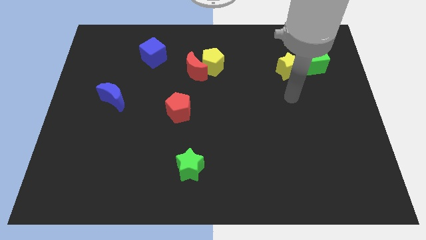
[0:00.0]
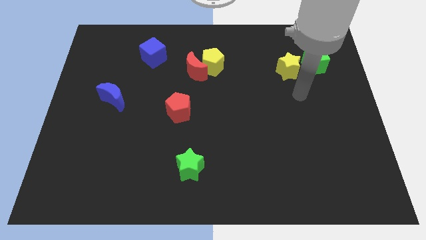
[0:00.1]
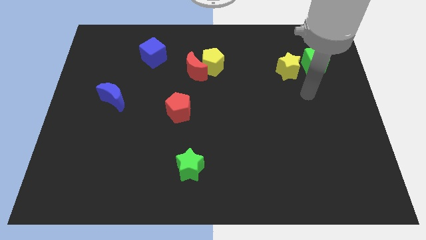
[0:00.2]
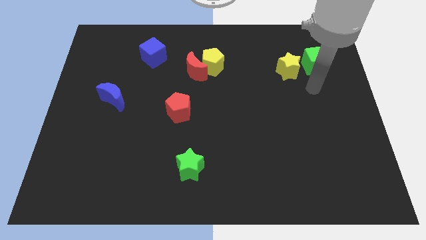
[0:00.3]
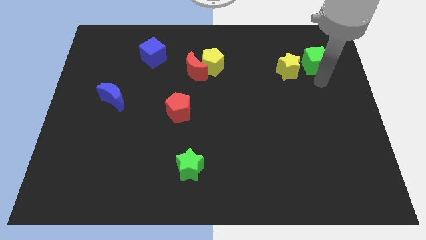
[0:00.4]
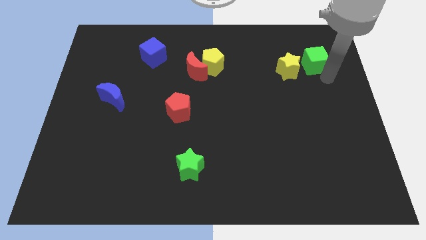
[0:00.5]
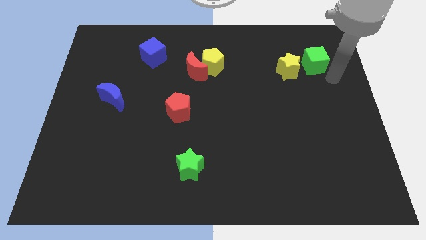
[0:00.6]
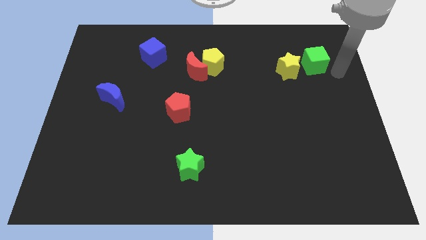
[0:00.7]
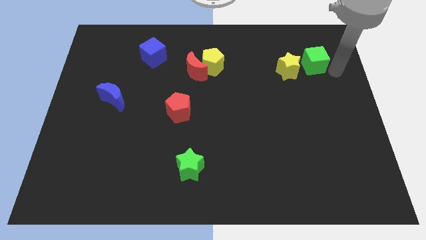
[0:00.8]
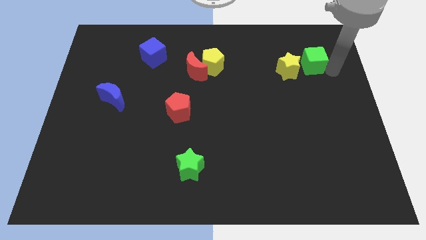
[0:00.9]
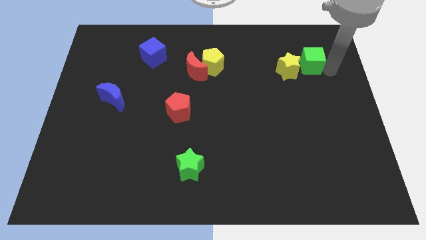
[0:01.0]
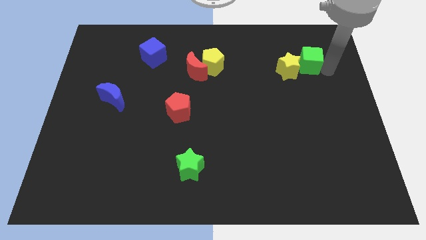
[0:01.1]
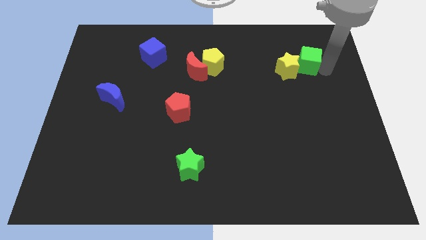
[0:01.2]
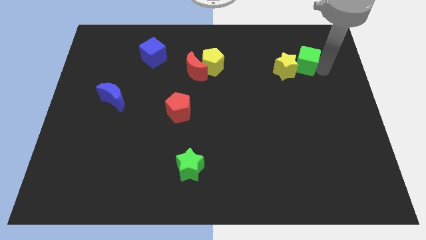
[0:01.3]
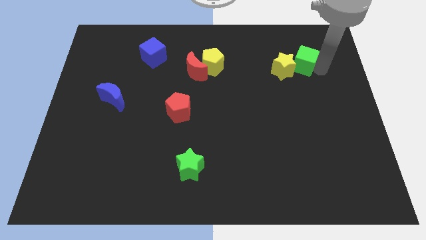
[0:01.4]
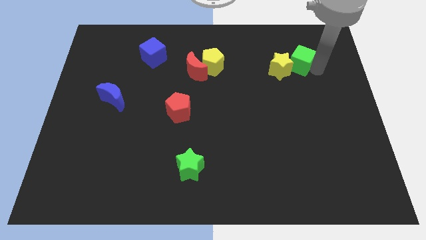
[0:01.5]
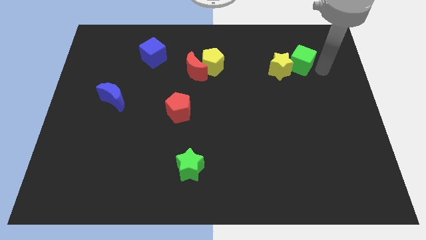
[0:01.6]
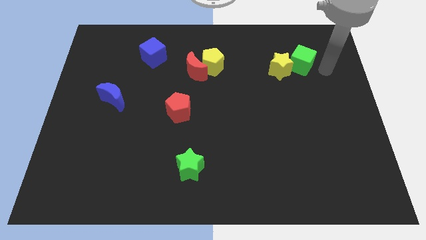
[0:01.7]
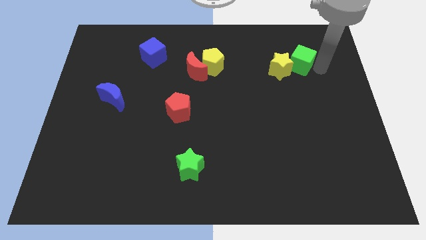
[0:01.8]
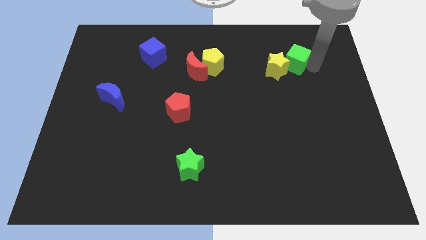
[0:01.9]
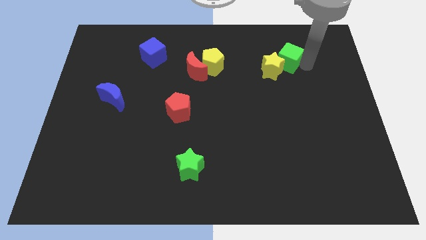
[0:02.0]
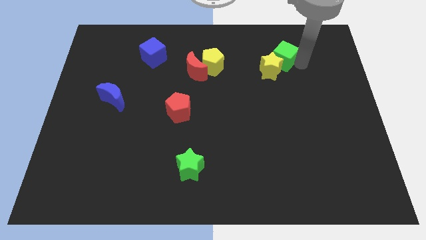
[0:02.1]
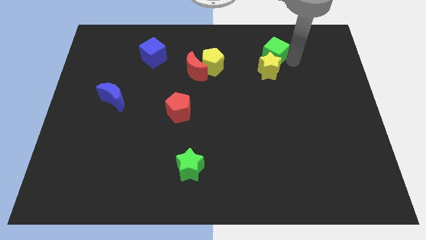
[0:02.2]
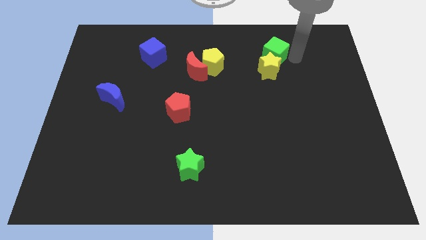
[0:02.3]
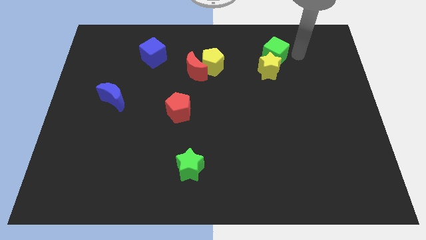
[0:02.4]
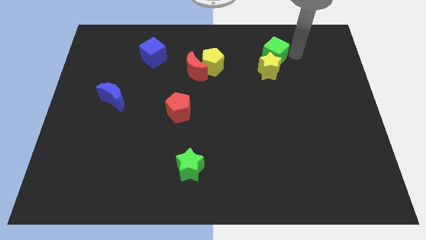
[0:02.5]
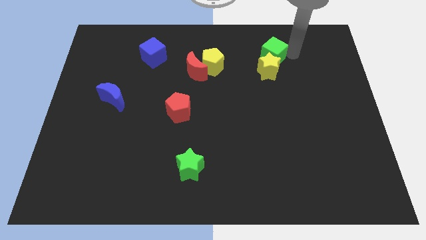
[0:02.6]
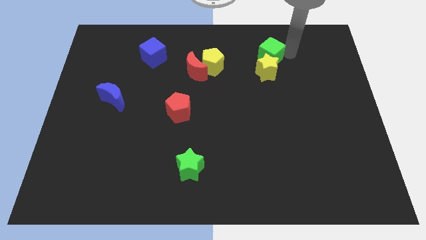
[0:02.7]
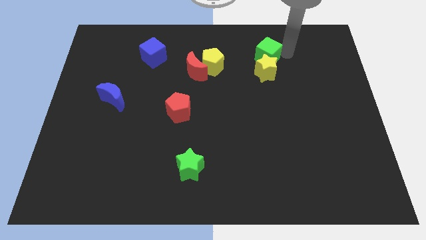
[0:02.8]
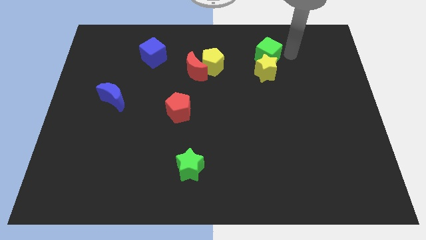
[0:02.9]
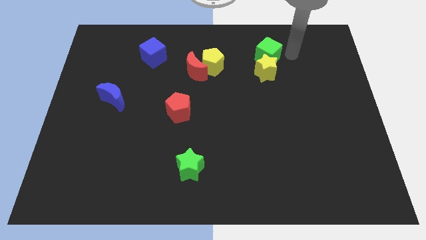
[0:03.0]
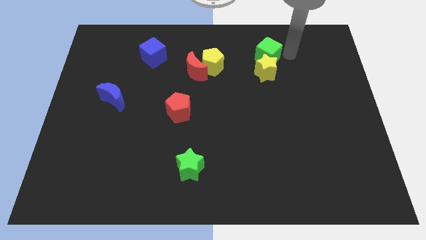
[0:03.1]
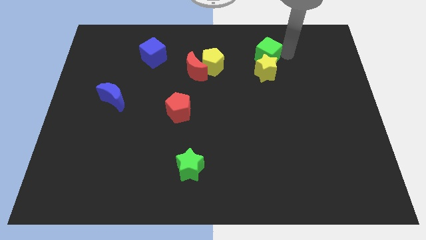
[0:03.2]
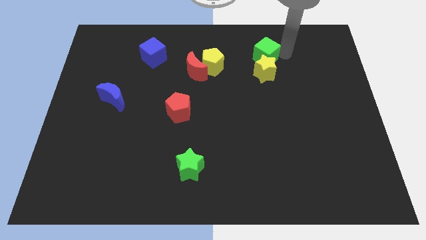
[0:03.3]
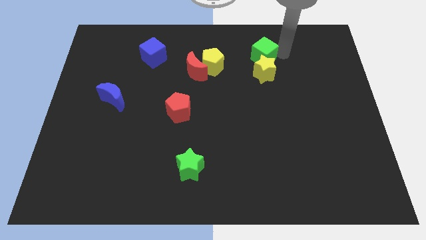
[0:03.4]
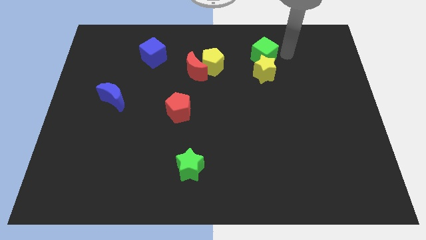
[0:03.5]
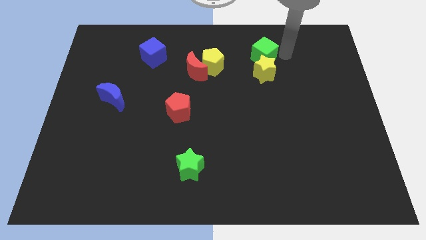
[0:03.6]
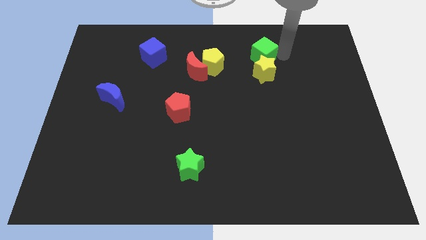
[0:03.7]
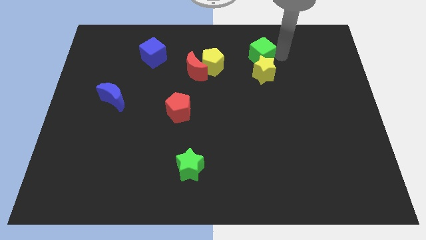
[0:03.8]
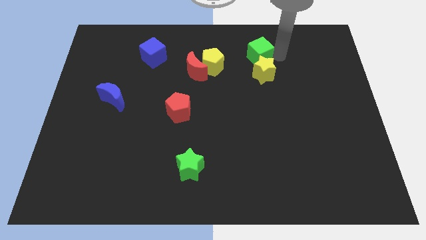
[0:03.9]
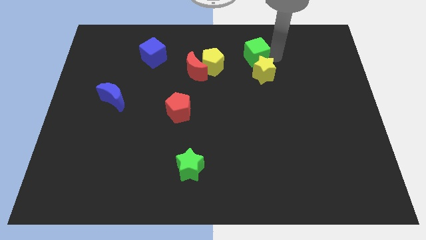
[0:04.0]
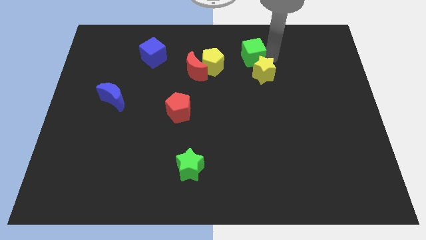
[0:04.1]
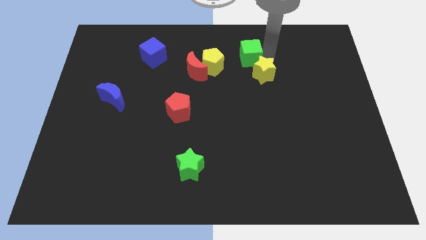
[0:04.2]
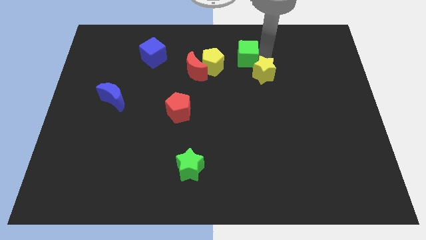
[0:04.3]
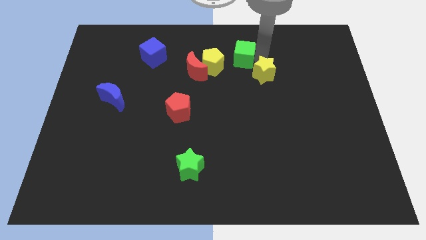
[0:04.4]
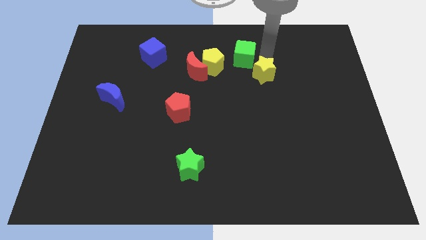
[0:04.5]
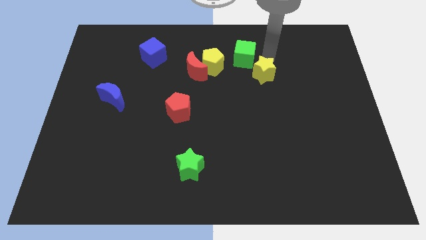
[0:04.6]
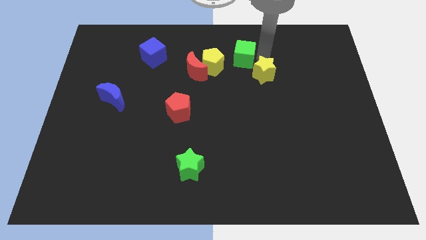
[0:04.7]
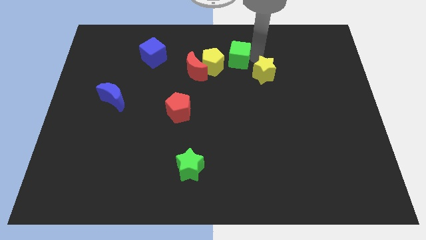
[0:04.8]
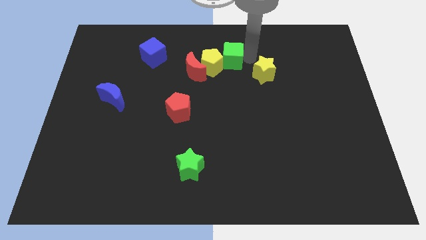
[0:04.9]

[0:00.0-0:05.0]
put the green cube to the top right of the red moon

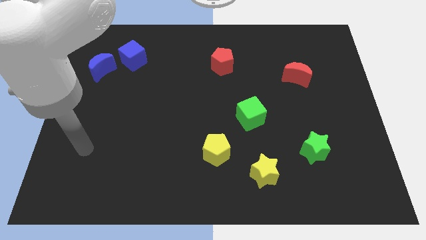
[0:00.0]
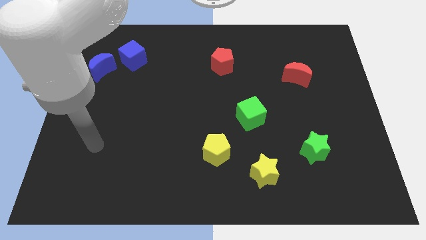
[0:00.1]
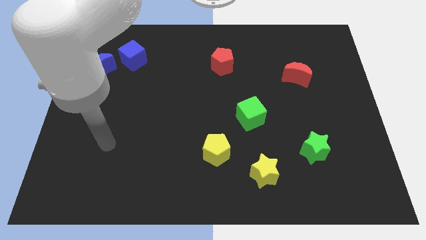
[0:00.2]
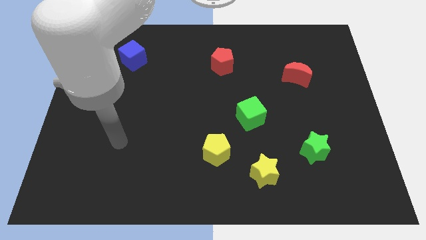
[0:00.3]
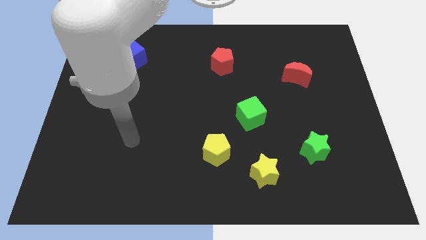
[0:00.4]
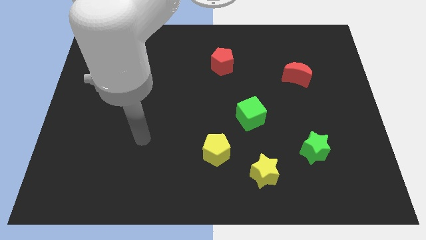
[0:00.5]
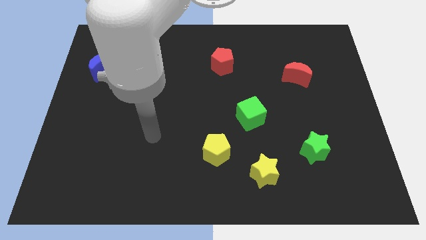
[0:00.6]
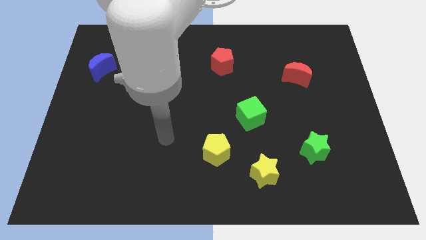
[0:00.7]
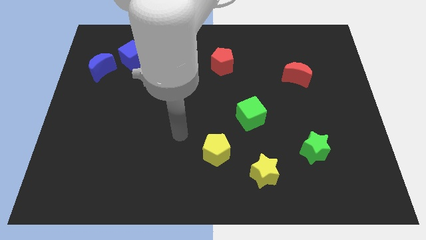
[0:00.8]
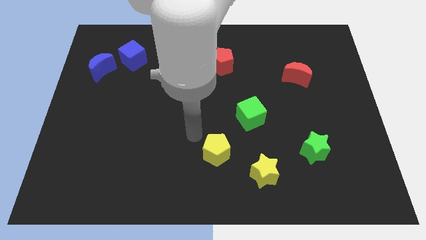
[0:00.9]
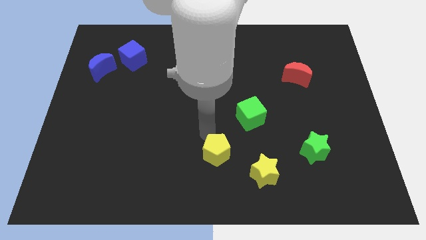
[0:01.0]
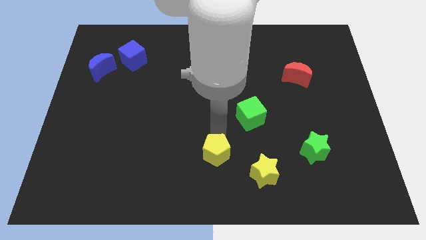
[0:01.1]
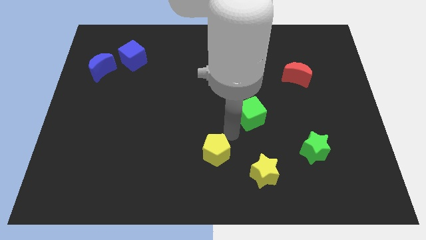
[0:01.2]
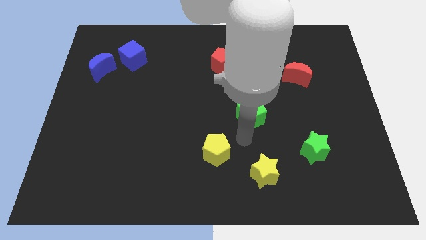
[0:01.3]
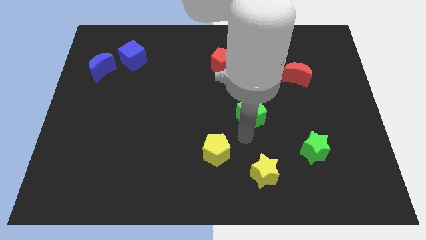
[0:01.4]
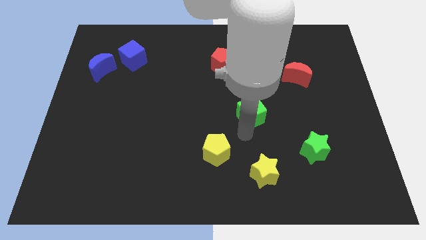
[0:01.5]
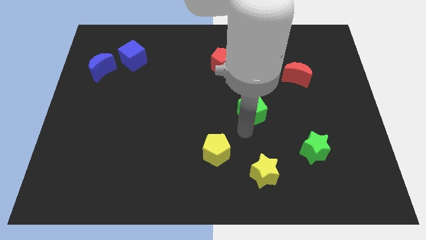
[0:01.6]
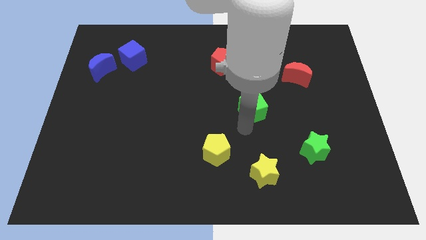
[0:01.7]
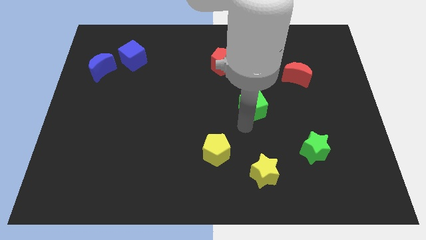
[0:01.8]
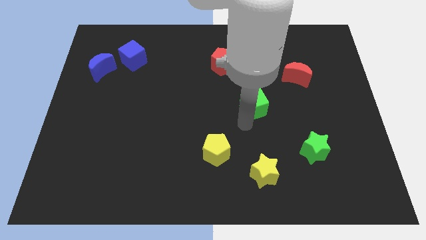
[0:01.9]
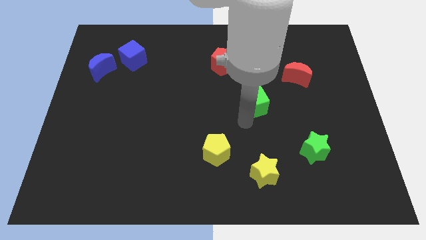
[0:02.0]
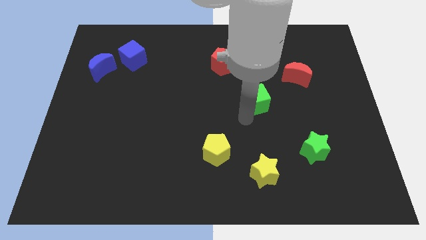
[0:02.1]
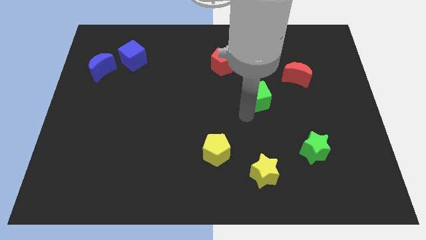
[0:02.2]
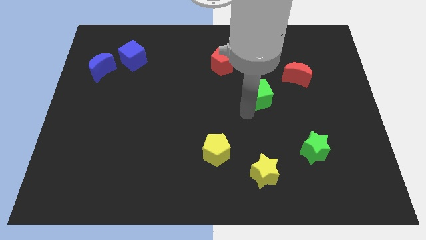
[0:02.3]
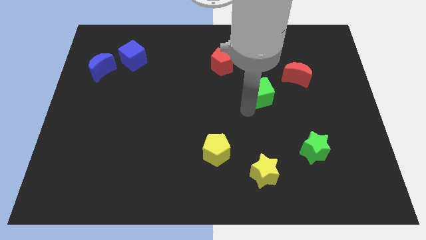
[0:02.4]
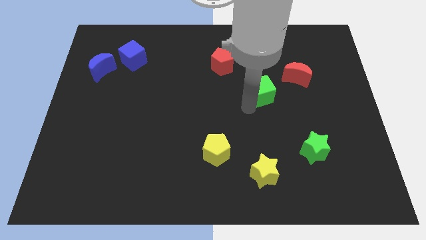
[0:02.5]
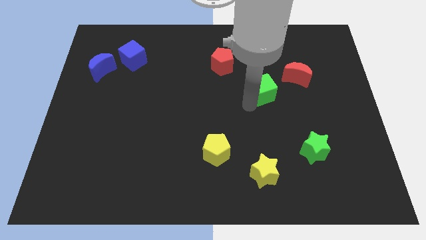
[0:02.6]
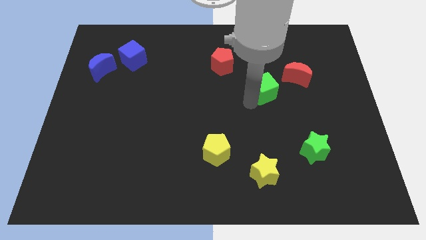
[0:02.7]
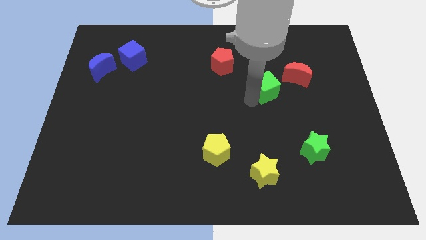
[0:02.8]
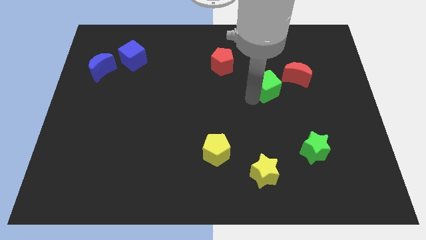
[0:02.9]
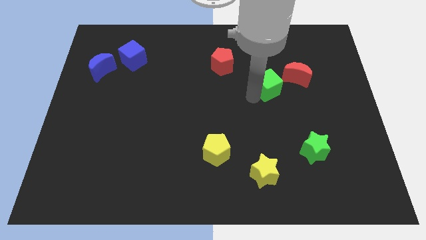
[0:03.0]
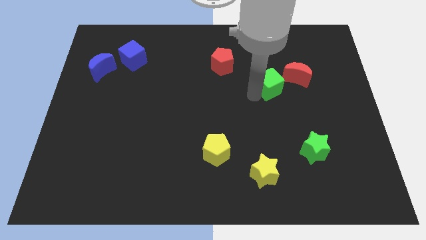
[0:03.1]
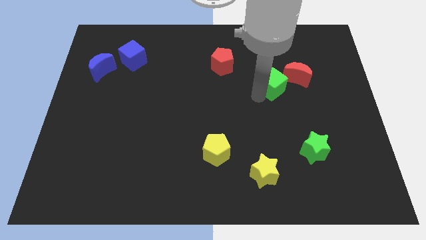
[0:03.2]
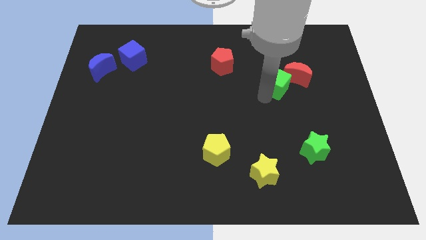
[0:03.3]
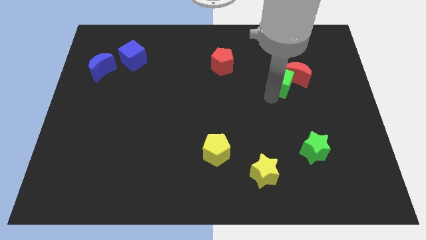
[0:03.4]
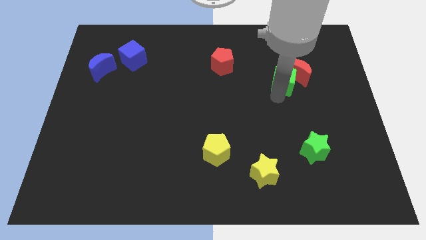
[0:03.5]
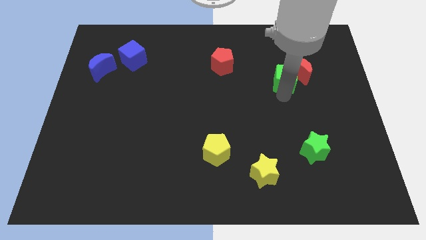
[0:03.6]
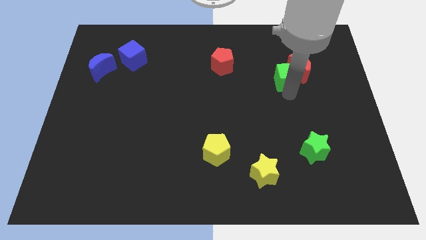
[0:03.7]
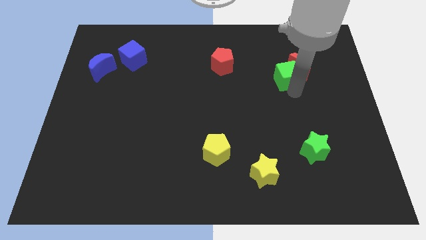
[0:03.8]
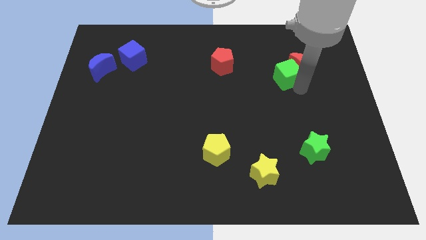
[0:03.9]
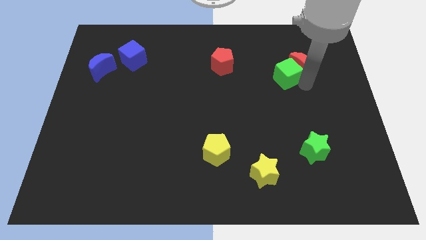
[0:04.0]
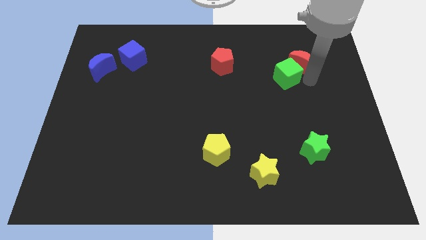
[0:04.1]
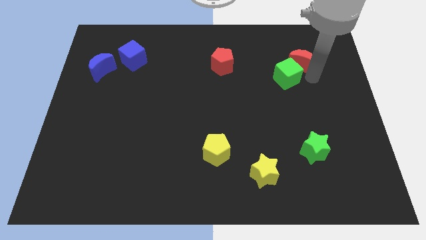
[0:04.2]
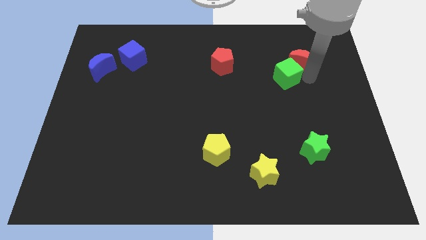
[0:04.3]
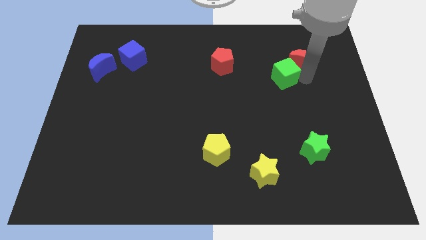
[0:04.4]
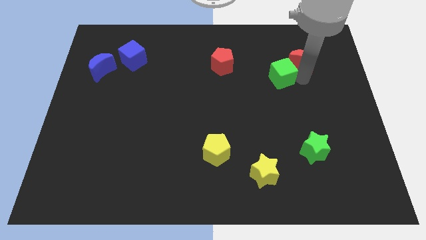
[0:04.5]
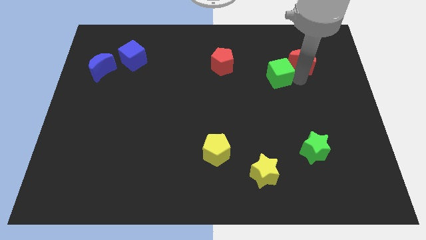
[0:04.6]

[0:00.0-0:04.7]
push the green cube right of the red pentagon
